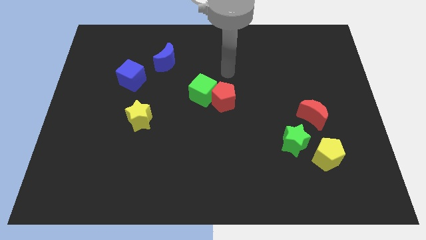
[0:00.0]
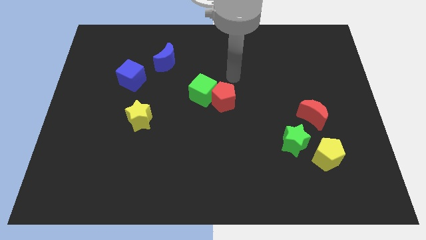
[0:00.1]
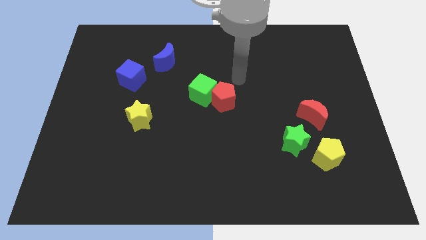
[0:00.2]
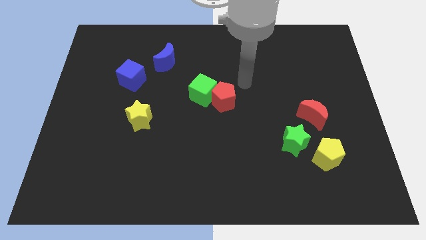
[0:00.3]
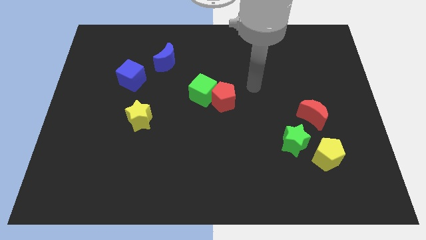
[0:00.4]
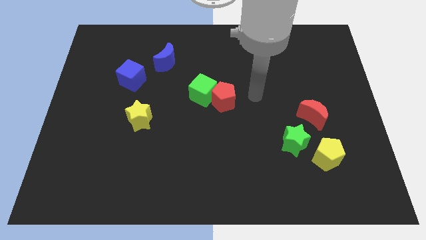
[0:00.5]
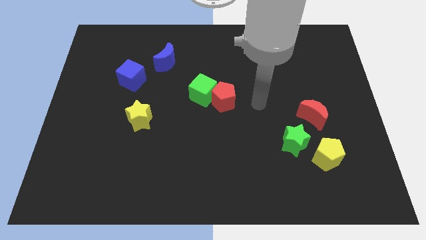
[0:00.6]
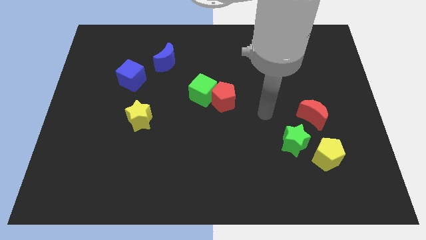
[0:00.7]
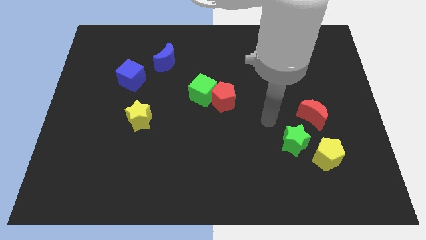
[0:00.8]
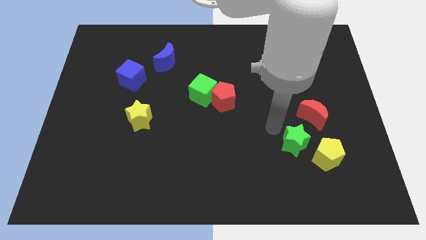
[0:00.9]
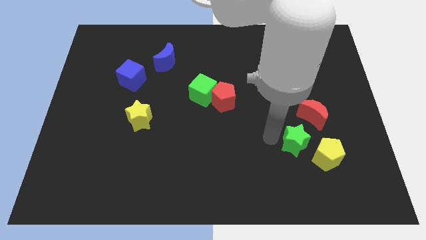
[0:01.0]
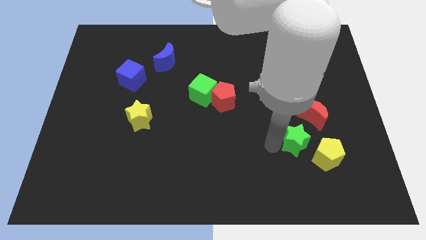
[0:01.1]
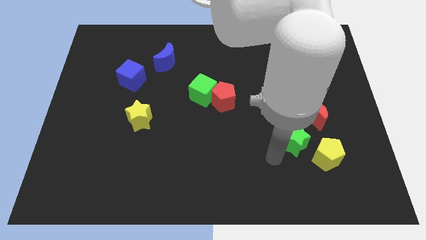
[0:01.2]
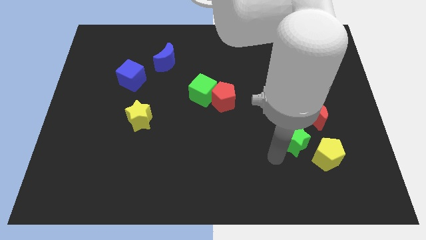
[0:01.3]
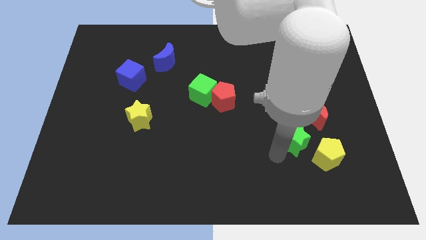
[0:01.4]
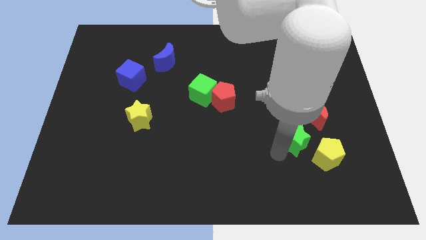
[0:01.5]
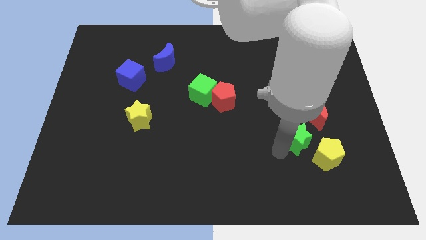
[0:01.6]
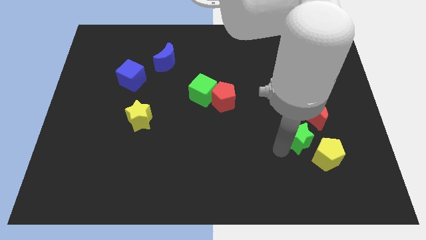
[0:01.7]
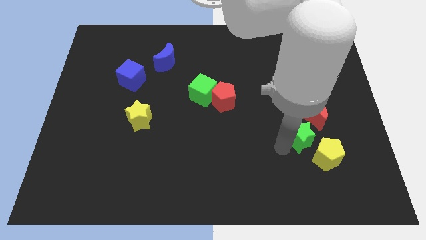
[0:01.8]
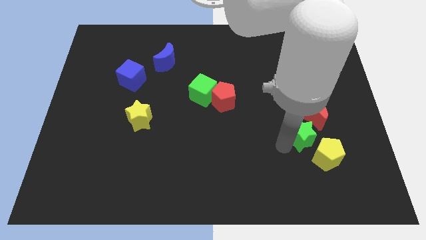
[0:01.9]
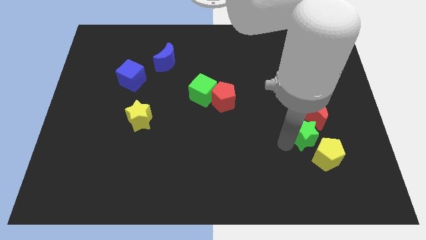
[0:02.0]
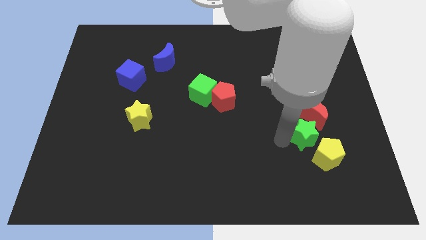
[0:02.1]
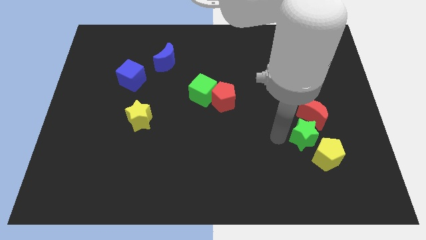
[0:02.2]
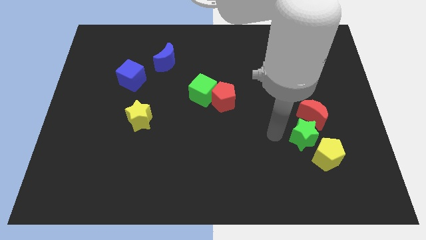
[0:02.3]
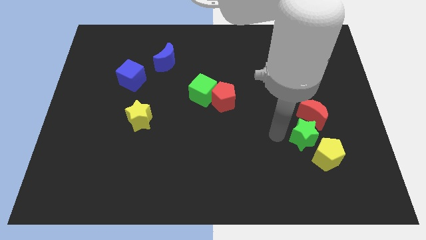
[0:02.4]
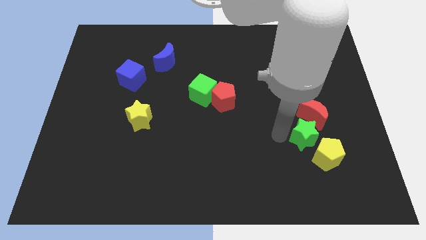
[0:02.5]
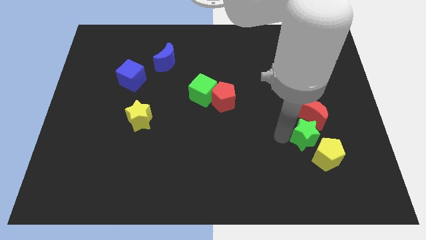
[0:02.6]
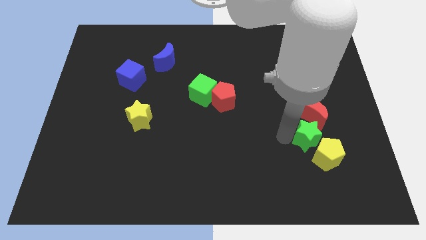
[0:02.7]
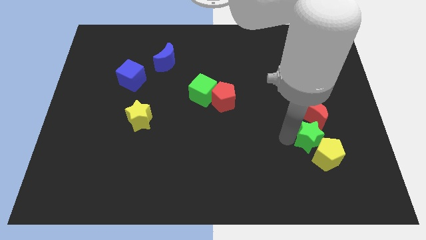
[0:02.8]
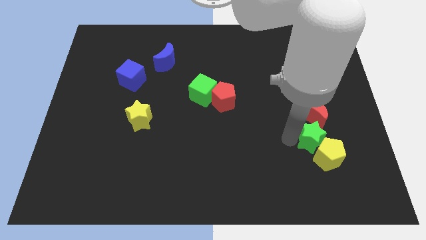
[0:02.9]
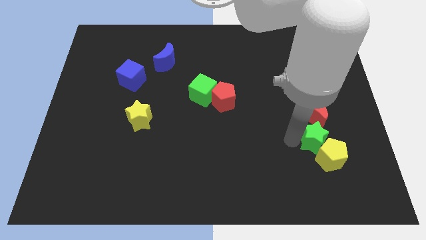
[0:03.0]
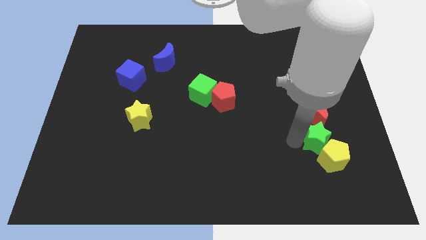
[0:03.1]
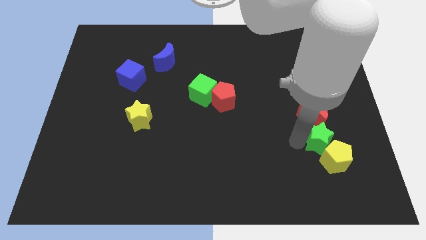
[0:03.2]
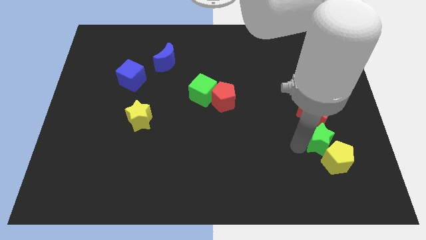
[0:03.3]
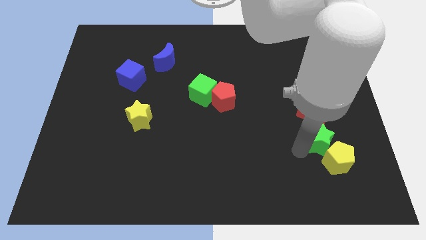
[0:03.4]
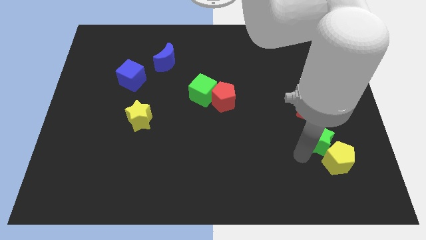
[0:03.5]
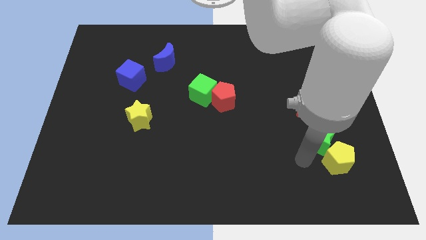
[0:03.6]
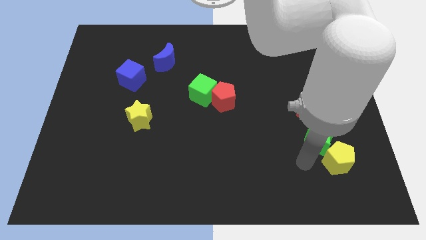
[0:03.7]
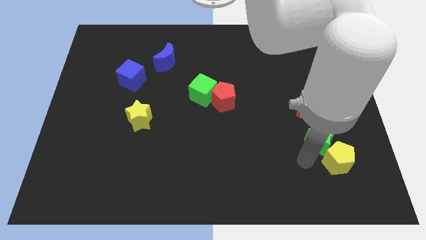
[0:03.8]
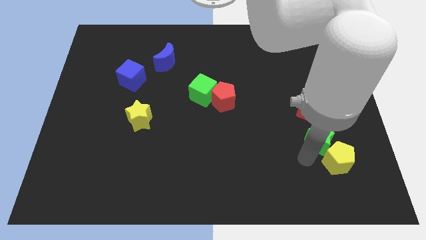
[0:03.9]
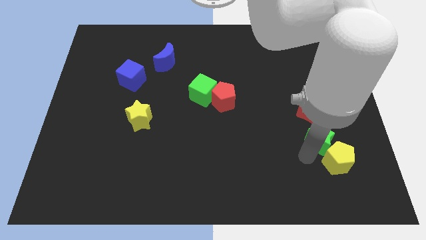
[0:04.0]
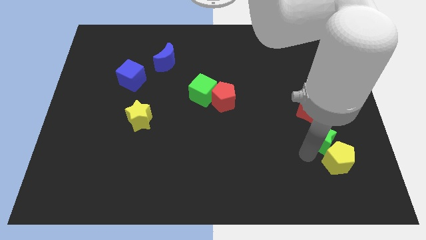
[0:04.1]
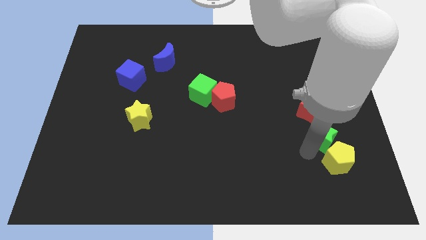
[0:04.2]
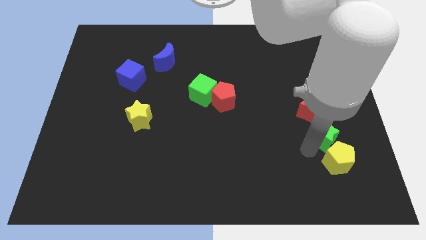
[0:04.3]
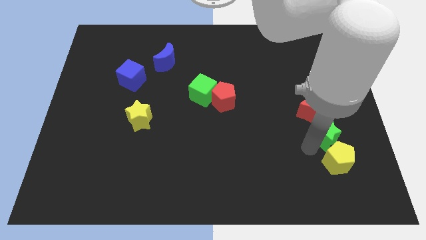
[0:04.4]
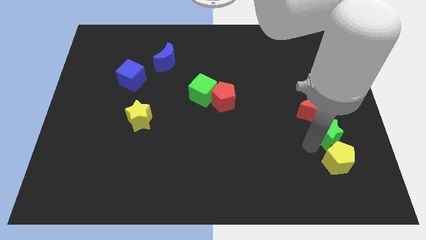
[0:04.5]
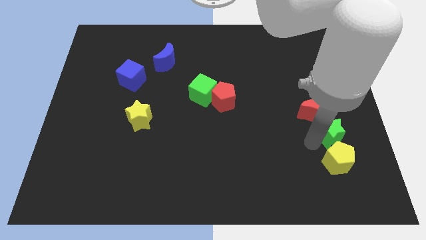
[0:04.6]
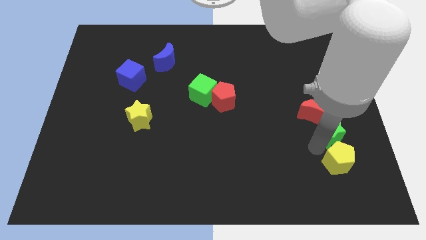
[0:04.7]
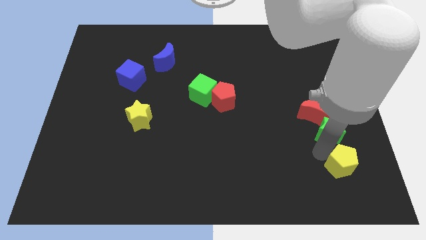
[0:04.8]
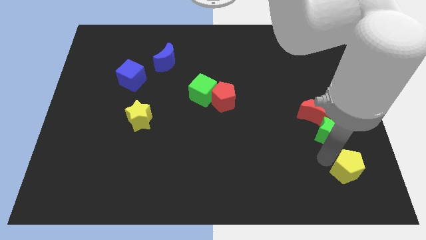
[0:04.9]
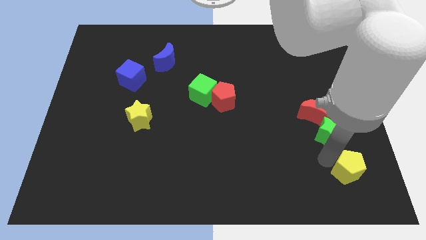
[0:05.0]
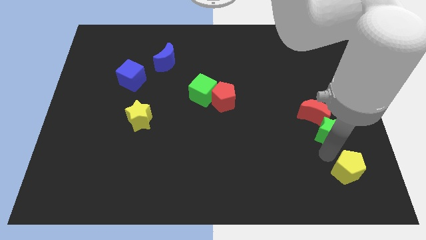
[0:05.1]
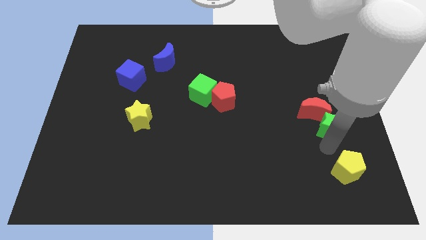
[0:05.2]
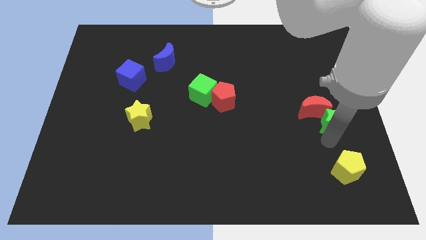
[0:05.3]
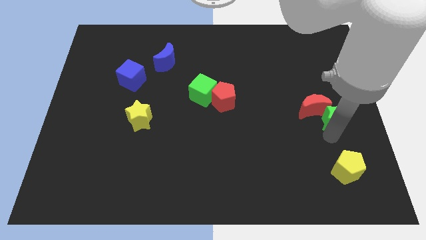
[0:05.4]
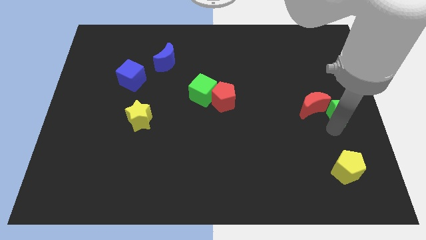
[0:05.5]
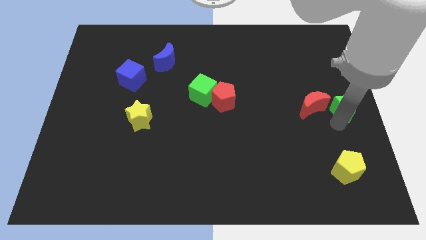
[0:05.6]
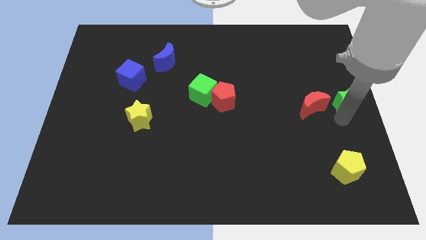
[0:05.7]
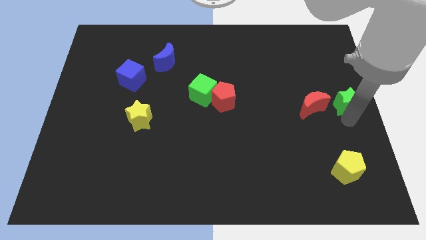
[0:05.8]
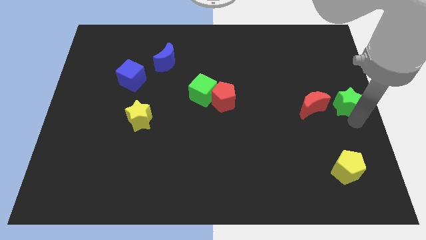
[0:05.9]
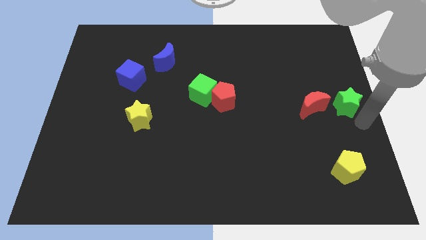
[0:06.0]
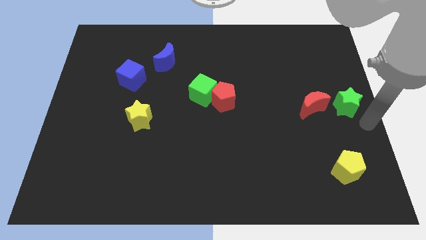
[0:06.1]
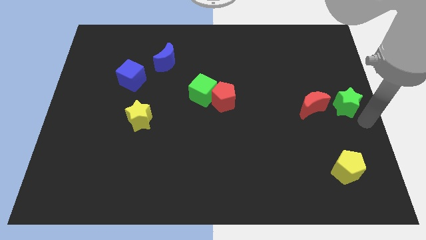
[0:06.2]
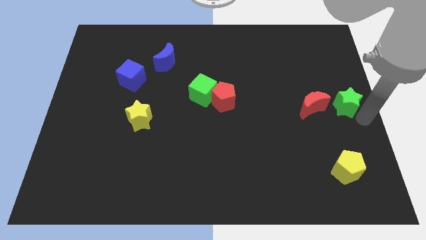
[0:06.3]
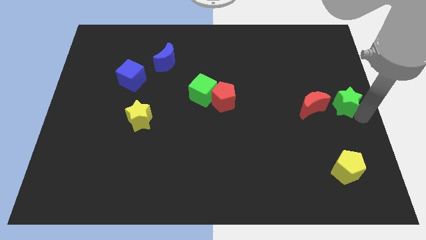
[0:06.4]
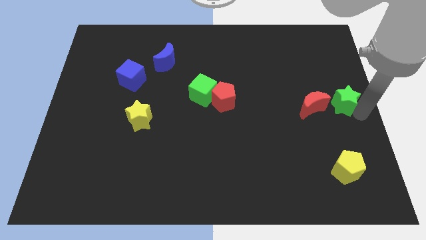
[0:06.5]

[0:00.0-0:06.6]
push the green star to the top right side of the red moon
